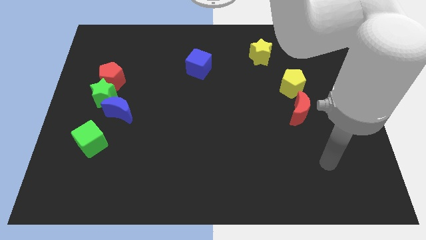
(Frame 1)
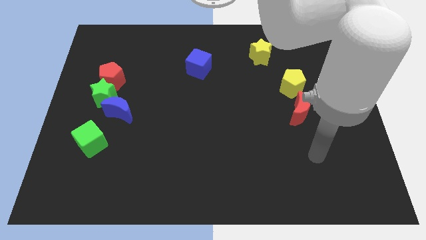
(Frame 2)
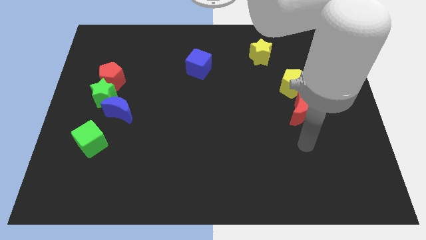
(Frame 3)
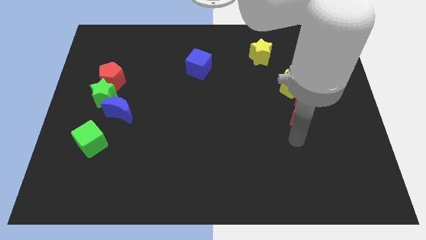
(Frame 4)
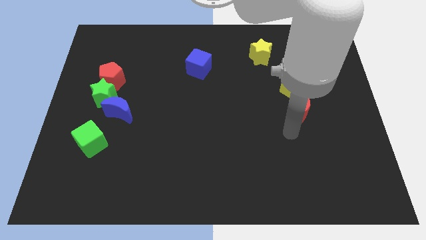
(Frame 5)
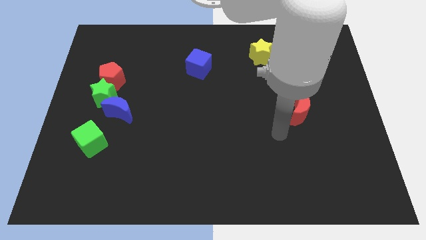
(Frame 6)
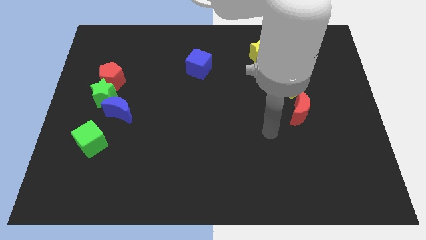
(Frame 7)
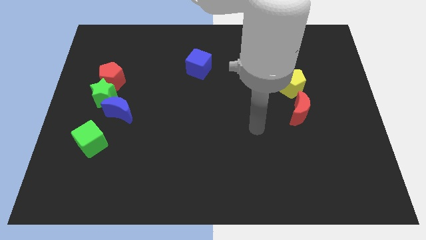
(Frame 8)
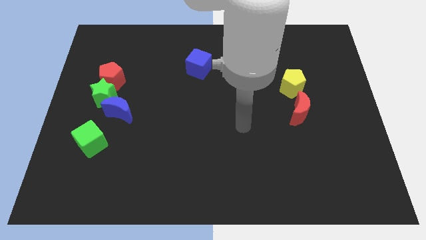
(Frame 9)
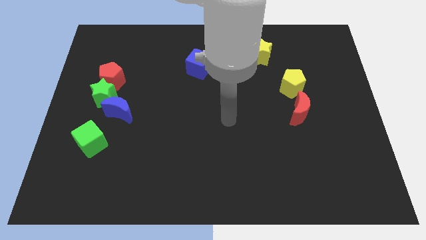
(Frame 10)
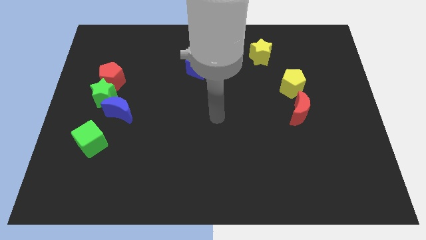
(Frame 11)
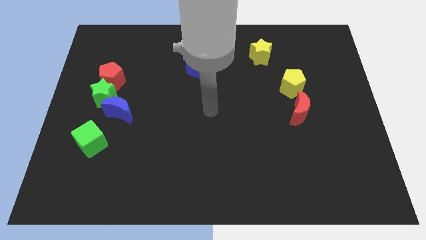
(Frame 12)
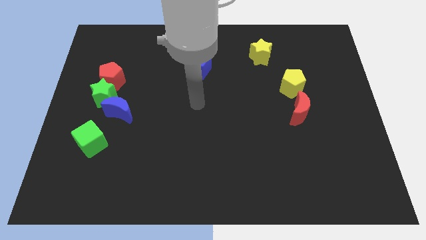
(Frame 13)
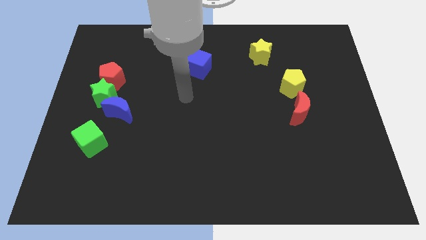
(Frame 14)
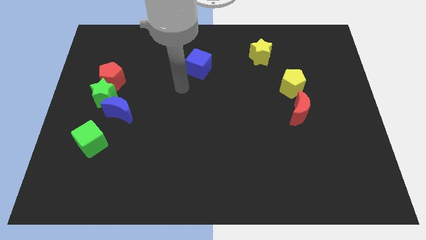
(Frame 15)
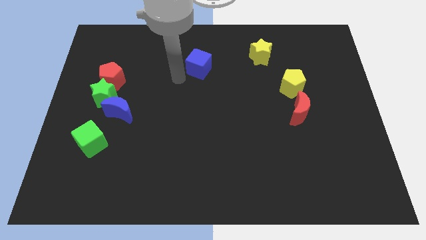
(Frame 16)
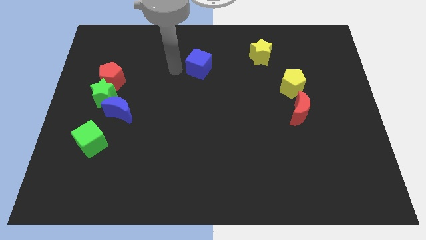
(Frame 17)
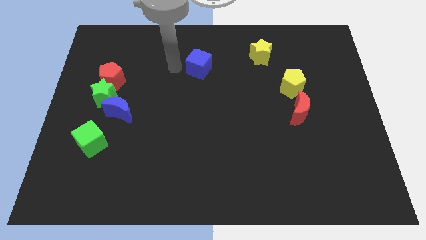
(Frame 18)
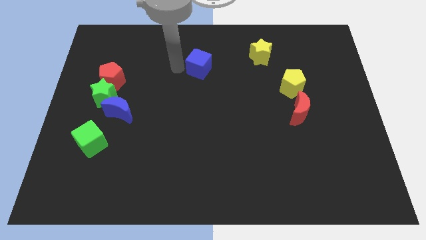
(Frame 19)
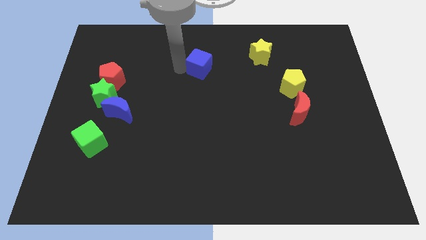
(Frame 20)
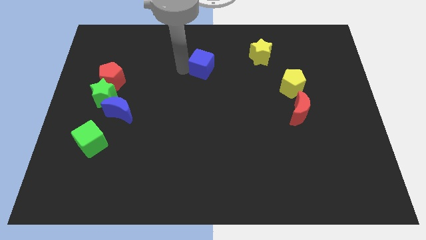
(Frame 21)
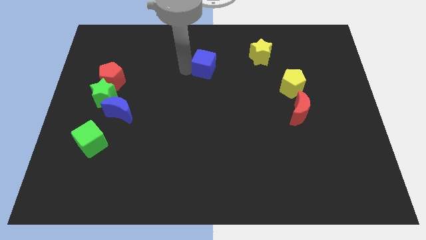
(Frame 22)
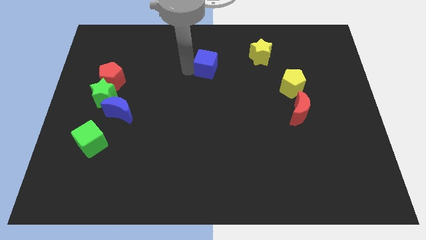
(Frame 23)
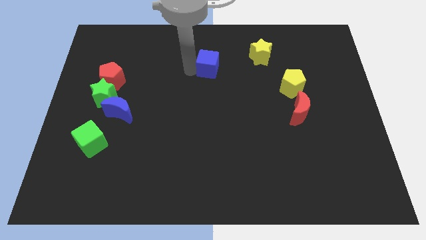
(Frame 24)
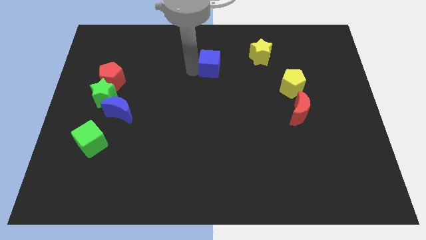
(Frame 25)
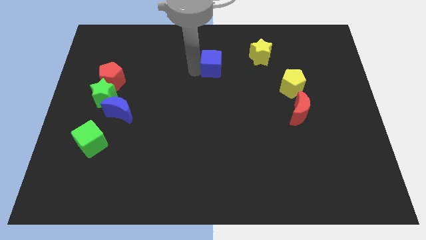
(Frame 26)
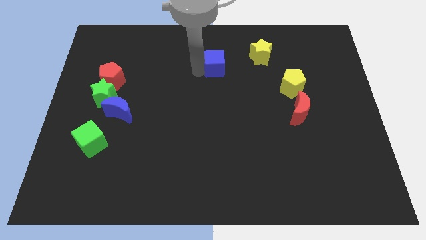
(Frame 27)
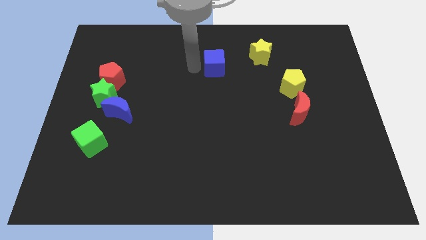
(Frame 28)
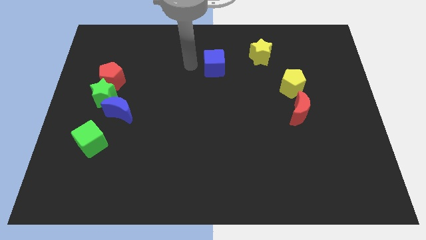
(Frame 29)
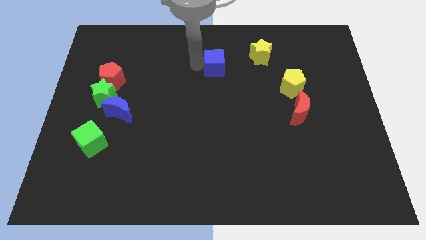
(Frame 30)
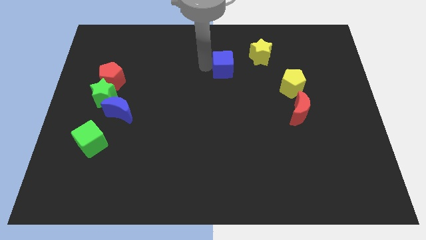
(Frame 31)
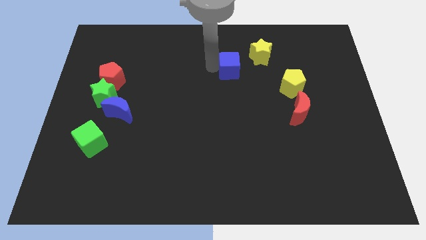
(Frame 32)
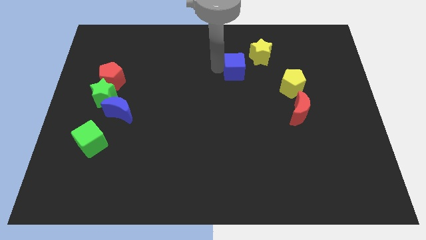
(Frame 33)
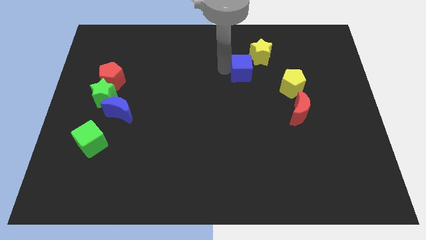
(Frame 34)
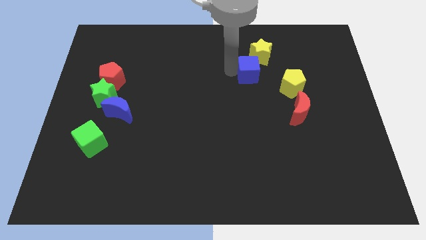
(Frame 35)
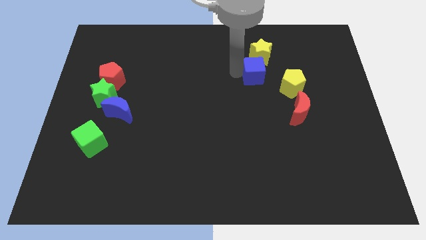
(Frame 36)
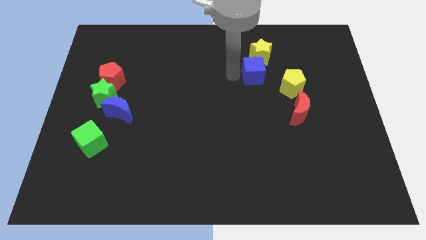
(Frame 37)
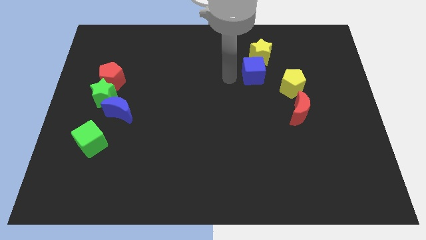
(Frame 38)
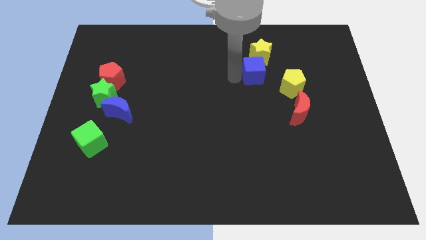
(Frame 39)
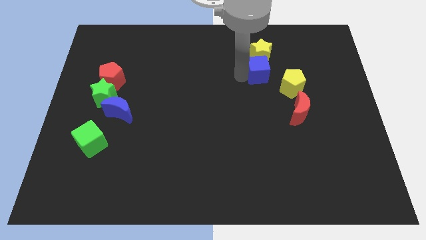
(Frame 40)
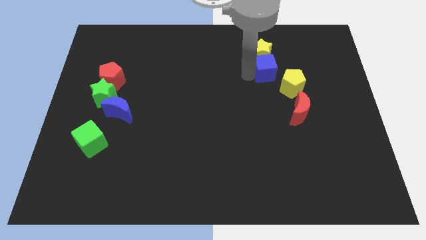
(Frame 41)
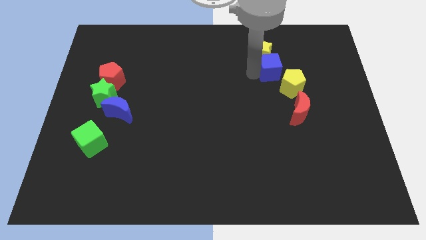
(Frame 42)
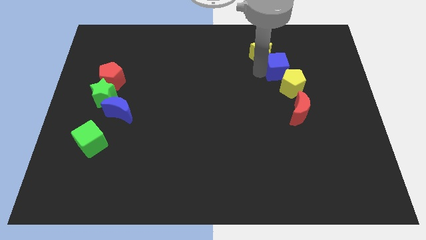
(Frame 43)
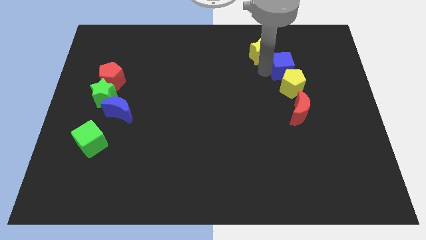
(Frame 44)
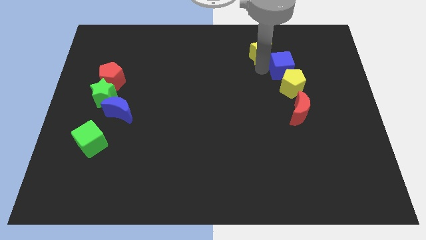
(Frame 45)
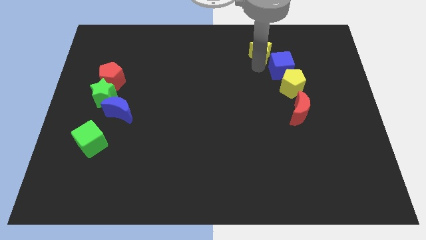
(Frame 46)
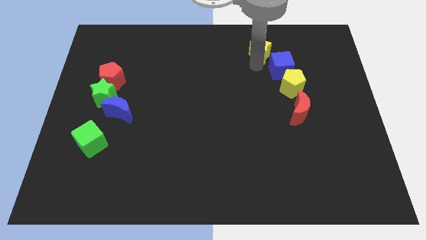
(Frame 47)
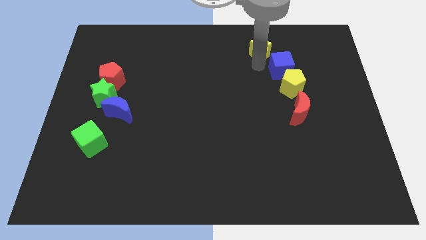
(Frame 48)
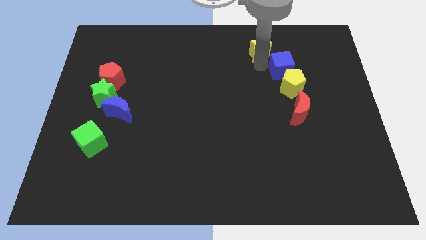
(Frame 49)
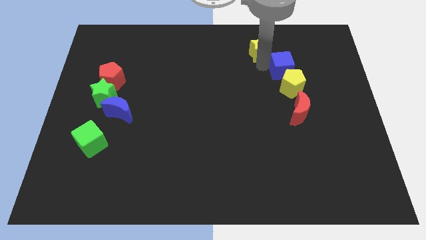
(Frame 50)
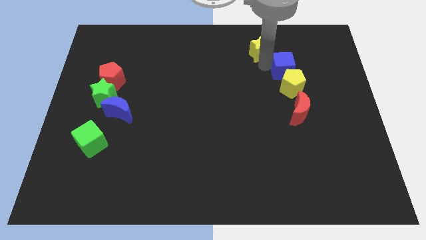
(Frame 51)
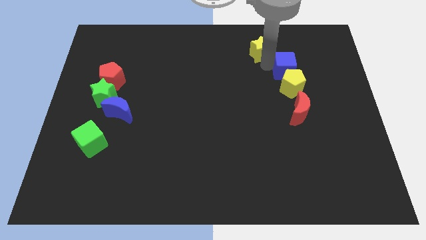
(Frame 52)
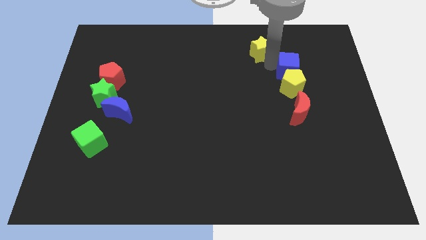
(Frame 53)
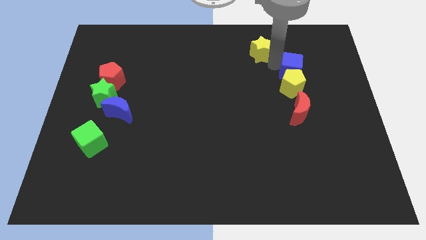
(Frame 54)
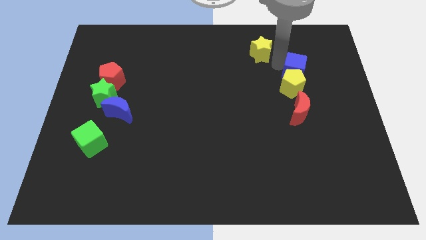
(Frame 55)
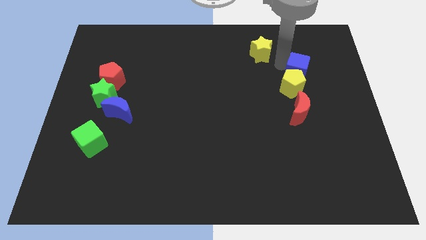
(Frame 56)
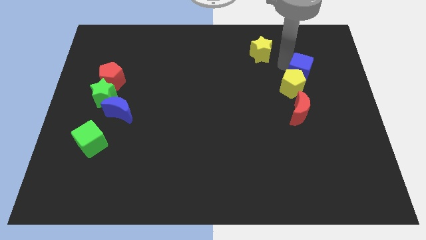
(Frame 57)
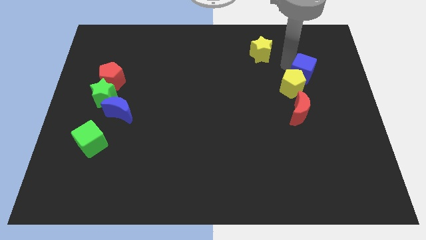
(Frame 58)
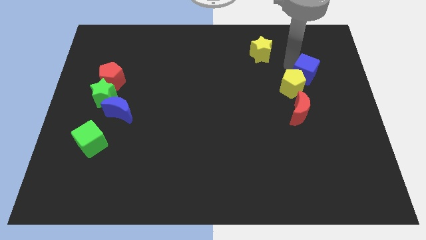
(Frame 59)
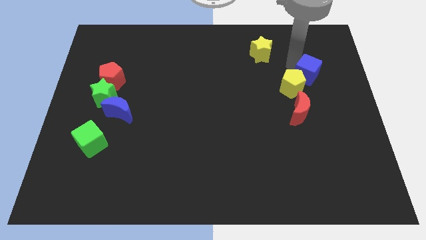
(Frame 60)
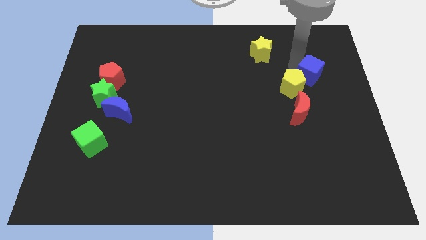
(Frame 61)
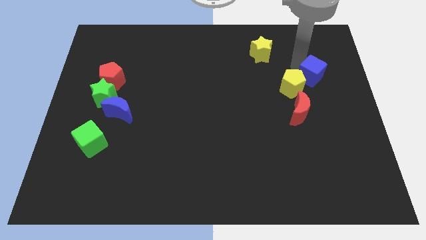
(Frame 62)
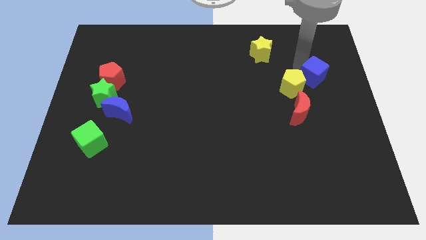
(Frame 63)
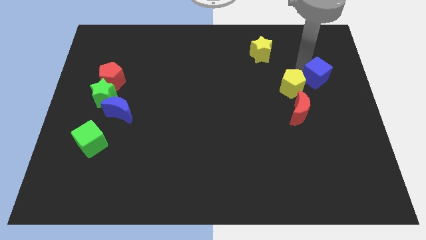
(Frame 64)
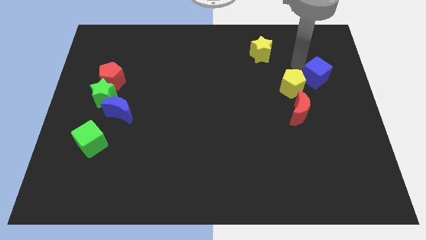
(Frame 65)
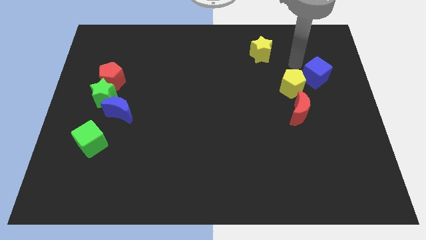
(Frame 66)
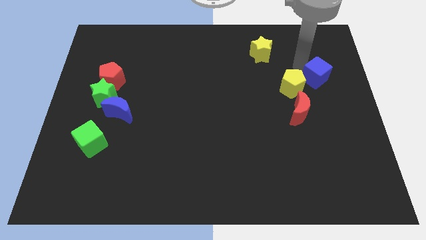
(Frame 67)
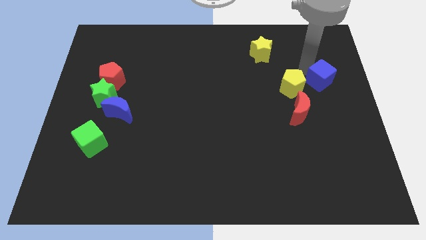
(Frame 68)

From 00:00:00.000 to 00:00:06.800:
move the blue cube to the right side

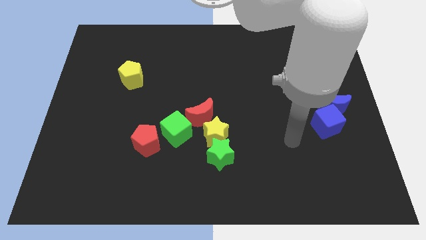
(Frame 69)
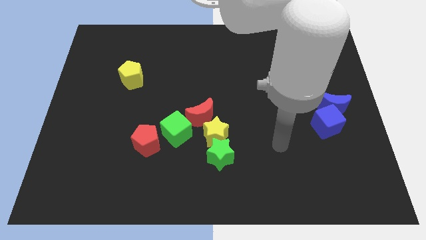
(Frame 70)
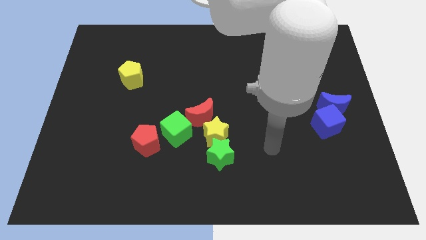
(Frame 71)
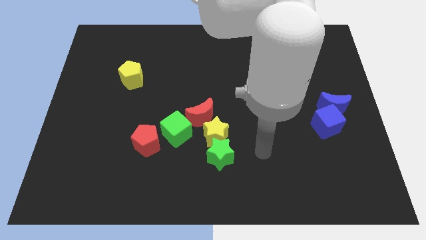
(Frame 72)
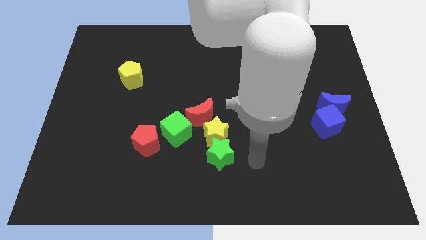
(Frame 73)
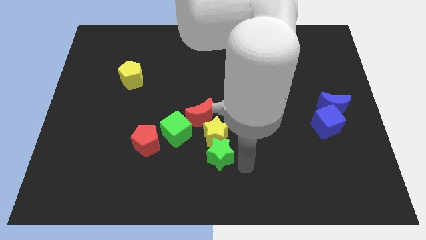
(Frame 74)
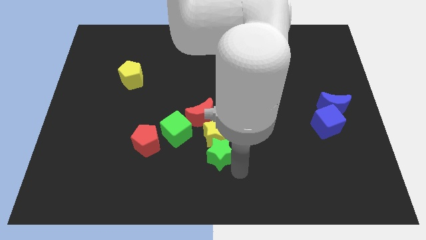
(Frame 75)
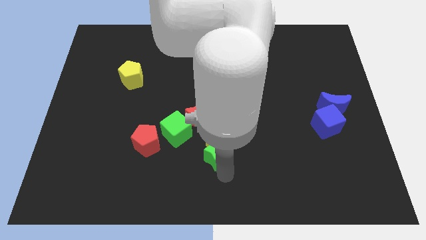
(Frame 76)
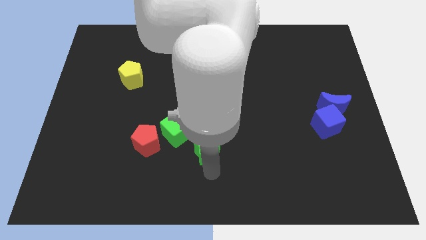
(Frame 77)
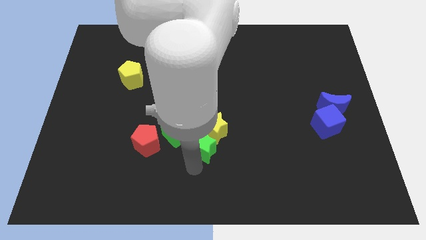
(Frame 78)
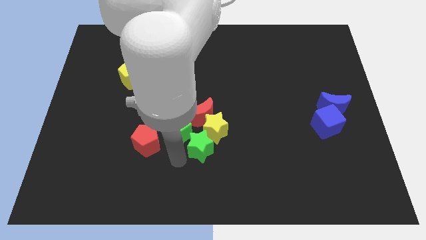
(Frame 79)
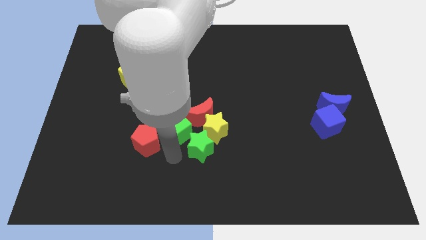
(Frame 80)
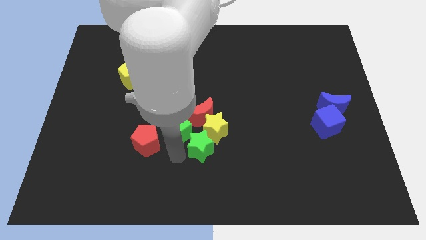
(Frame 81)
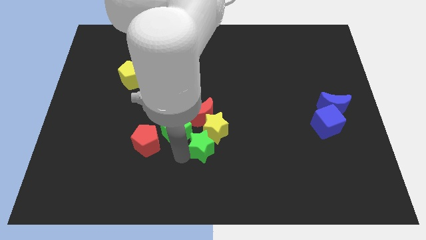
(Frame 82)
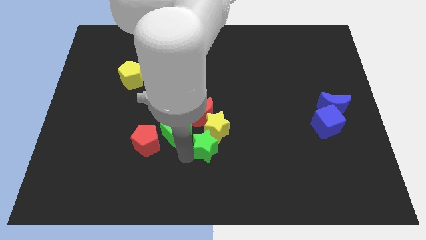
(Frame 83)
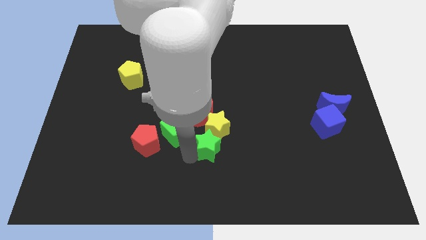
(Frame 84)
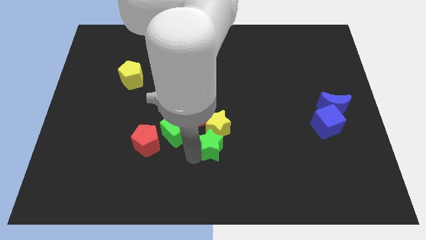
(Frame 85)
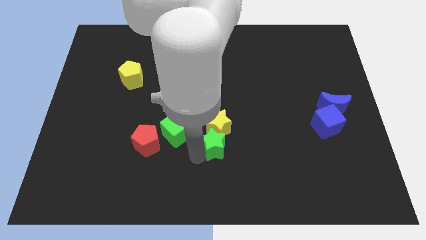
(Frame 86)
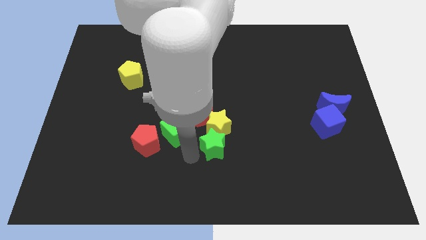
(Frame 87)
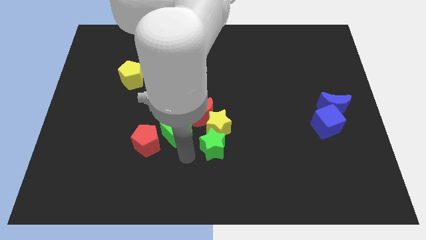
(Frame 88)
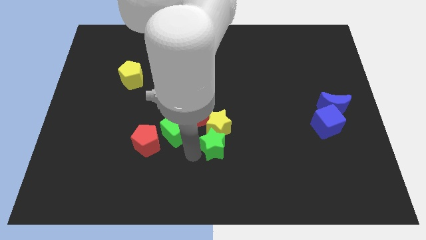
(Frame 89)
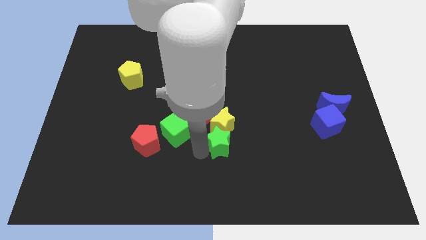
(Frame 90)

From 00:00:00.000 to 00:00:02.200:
move the green star to the center
